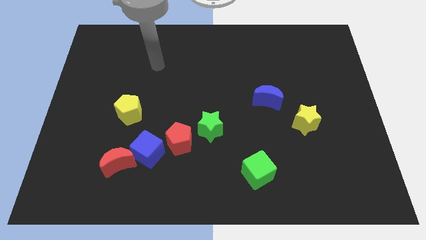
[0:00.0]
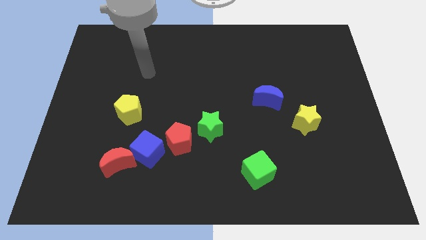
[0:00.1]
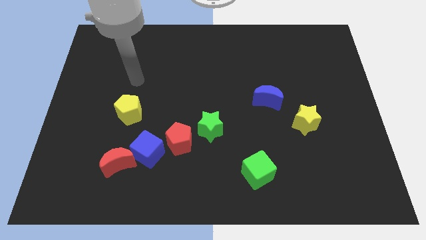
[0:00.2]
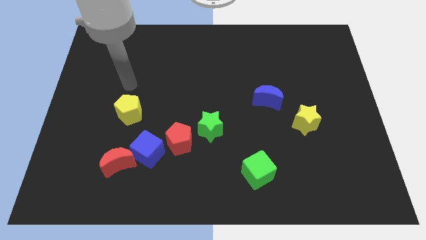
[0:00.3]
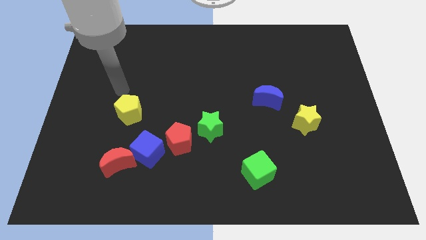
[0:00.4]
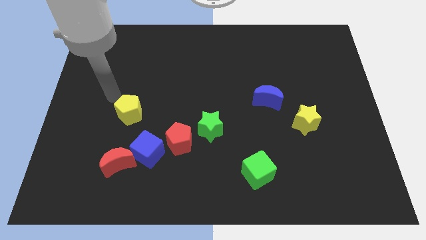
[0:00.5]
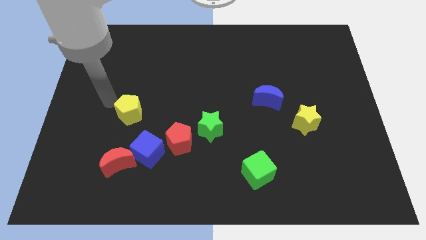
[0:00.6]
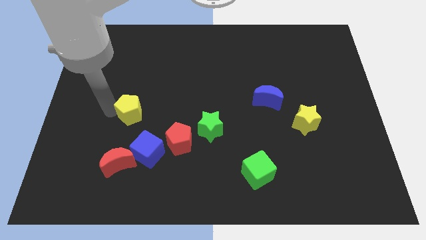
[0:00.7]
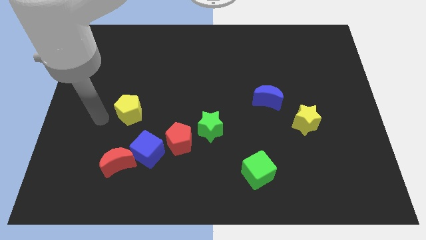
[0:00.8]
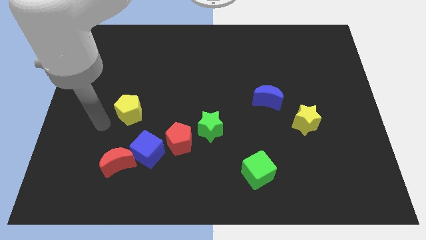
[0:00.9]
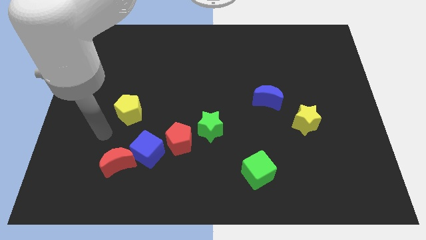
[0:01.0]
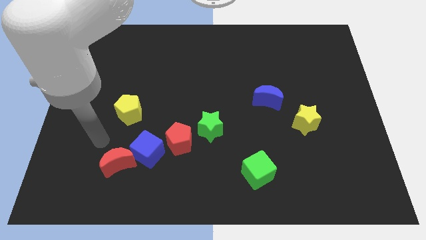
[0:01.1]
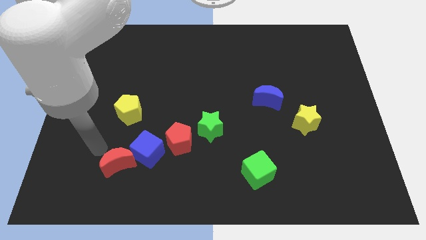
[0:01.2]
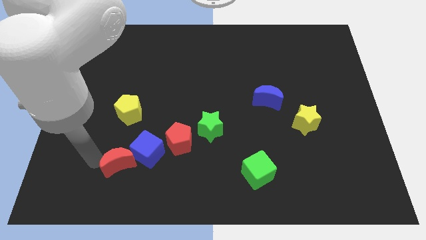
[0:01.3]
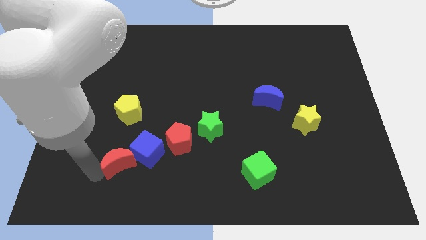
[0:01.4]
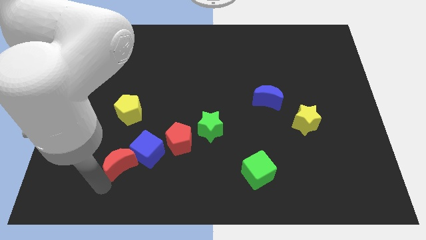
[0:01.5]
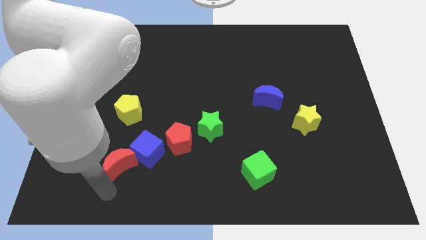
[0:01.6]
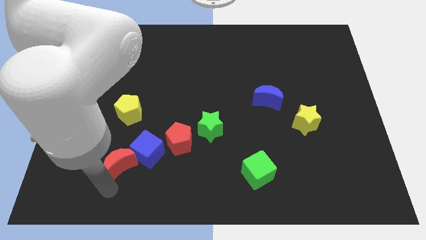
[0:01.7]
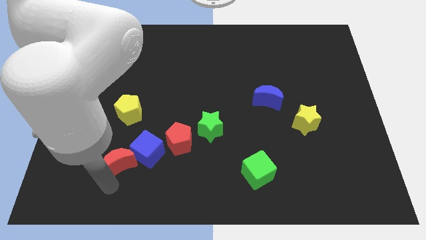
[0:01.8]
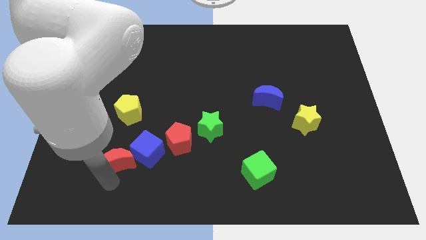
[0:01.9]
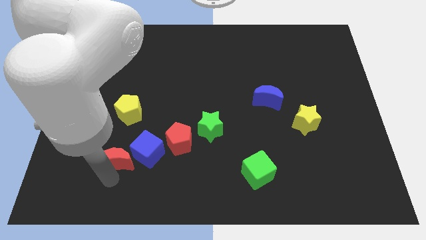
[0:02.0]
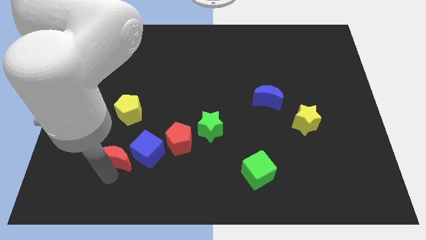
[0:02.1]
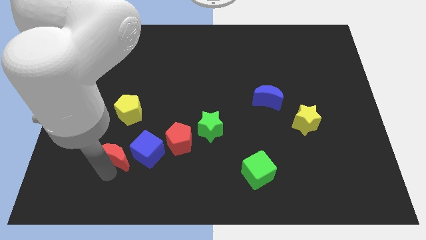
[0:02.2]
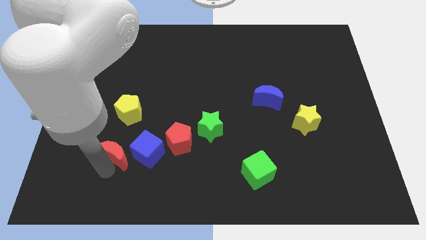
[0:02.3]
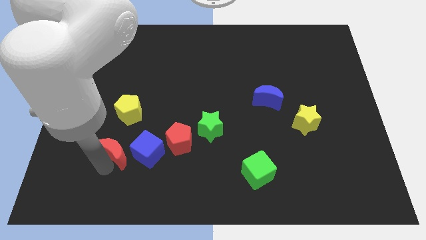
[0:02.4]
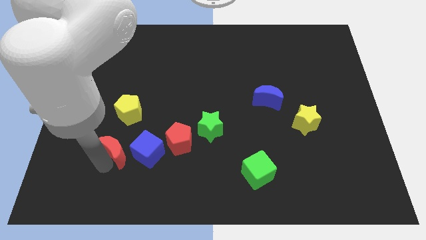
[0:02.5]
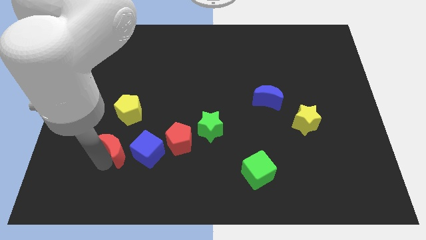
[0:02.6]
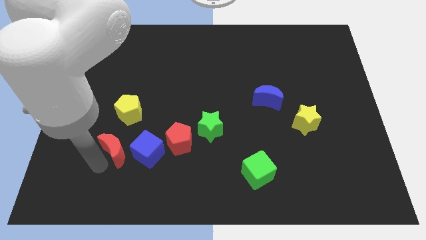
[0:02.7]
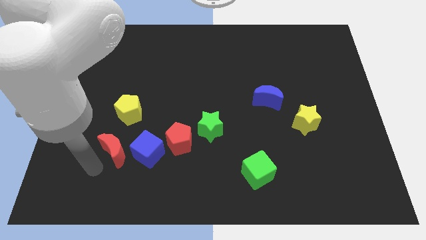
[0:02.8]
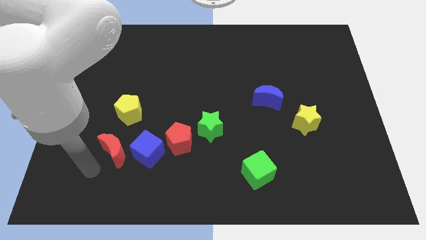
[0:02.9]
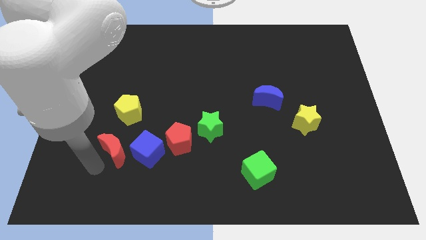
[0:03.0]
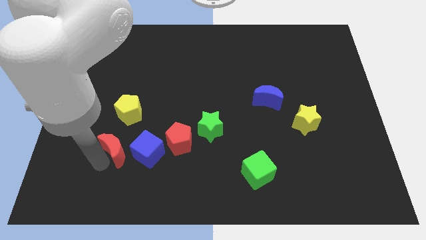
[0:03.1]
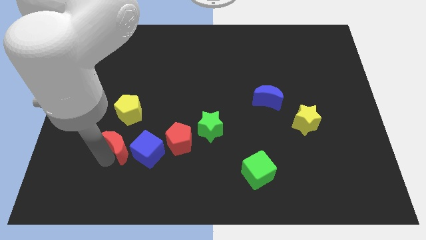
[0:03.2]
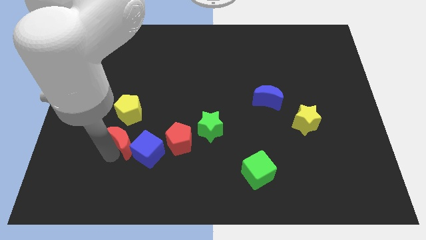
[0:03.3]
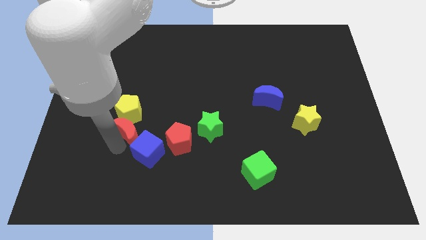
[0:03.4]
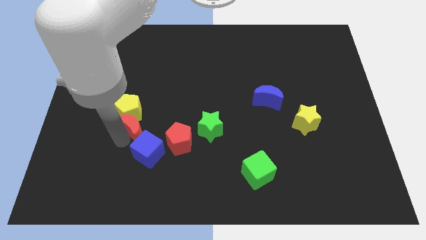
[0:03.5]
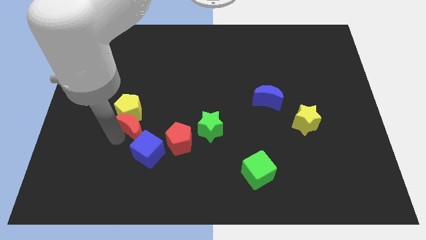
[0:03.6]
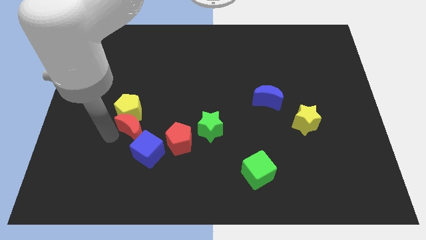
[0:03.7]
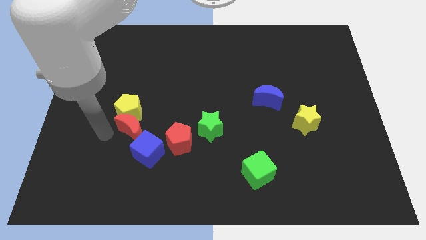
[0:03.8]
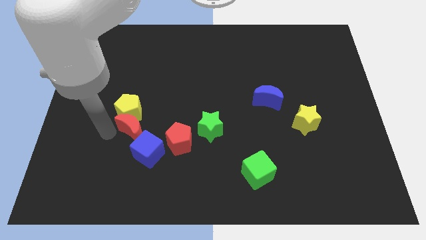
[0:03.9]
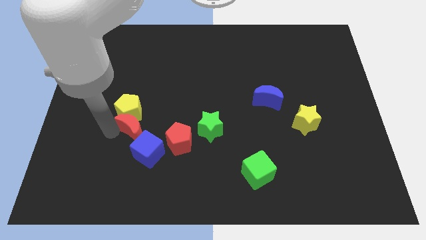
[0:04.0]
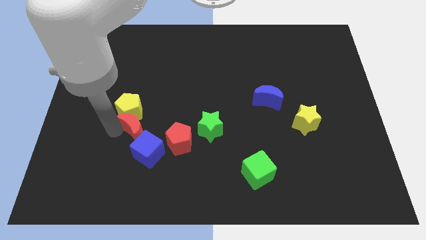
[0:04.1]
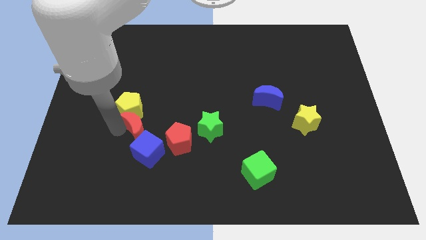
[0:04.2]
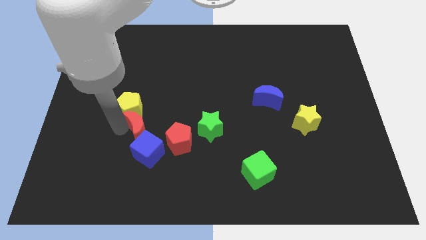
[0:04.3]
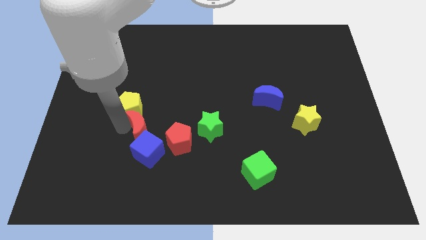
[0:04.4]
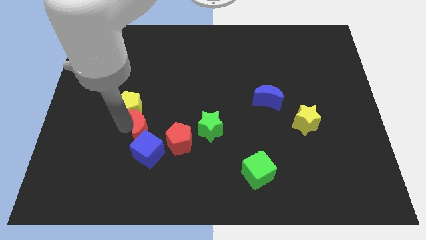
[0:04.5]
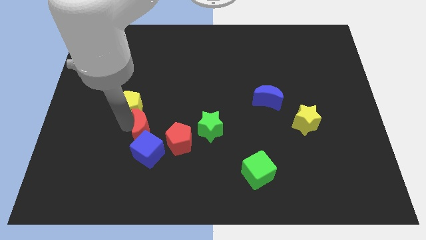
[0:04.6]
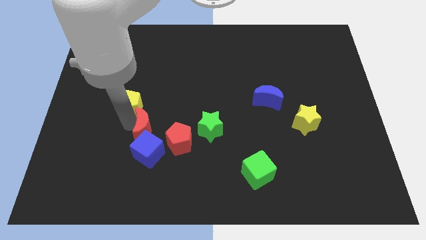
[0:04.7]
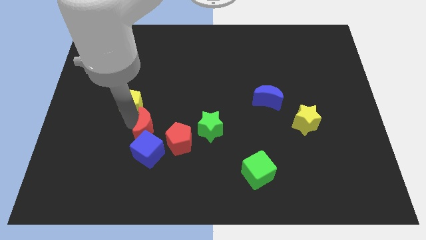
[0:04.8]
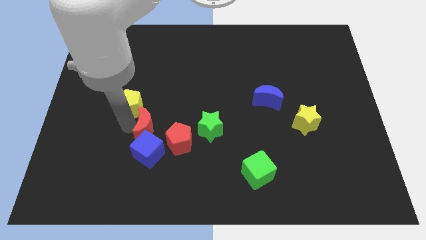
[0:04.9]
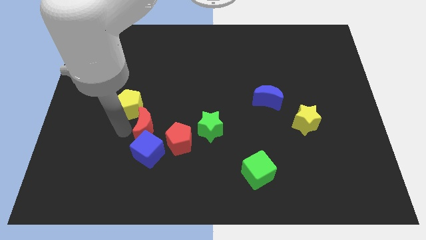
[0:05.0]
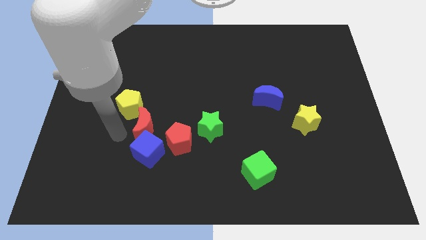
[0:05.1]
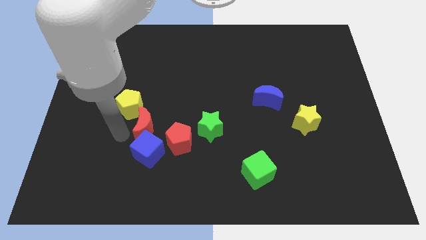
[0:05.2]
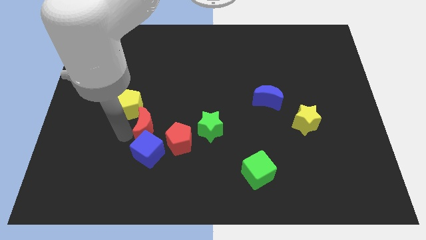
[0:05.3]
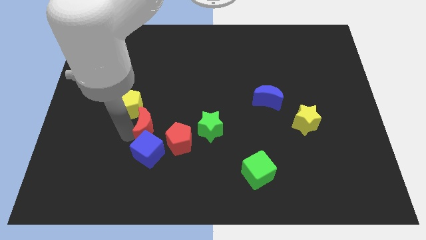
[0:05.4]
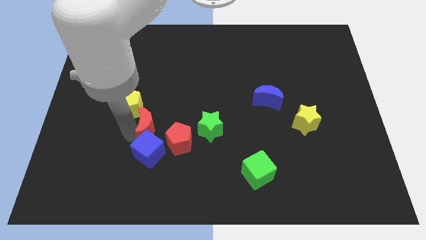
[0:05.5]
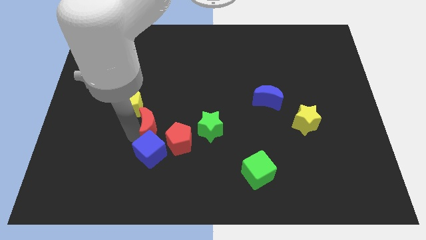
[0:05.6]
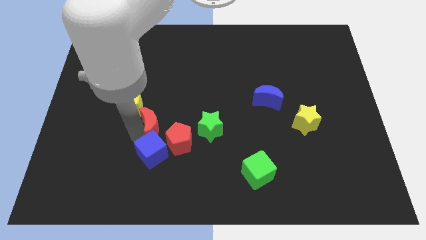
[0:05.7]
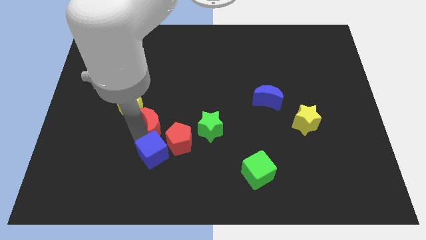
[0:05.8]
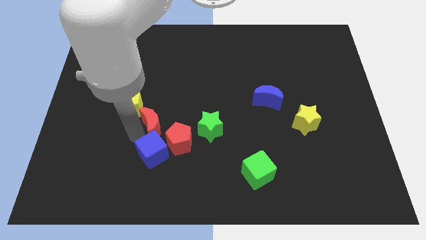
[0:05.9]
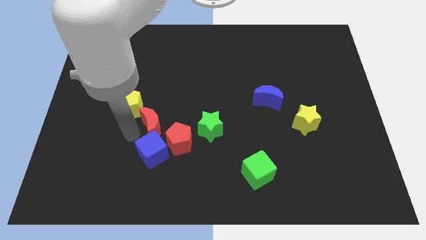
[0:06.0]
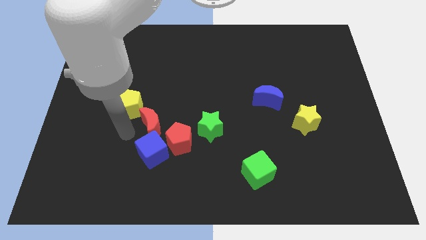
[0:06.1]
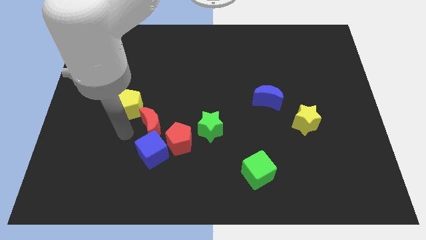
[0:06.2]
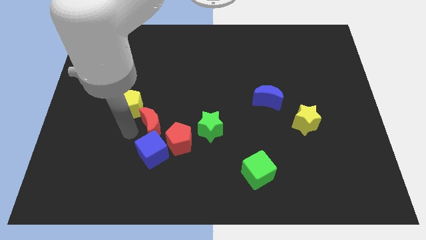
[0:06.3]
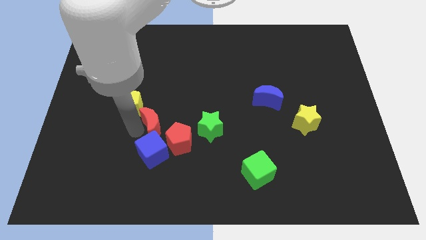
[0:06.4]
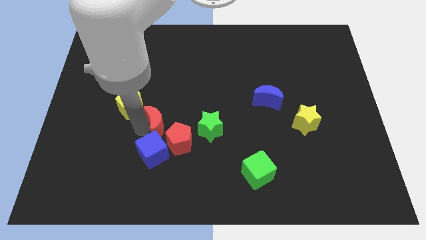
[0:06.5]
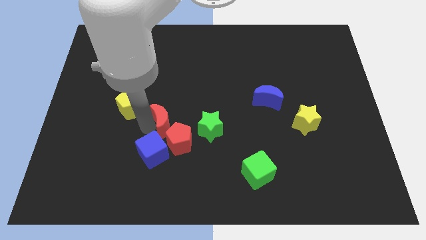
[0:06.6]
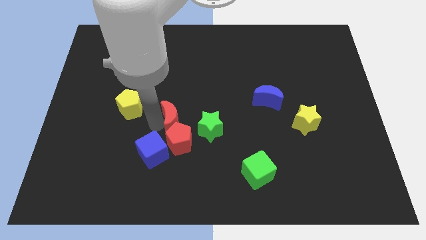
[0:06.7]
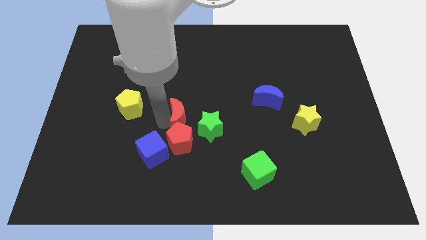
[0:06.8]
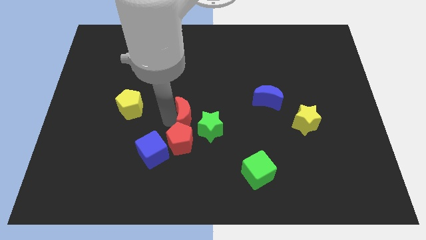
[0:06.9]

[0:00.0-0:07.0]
move the red moon to the top right side of the red pentagon

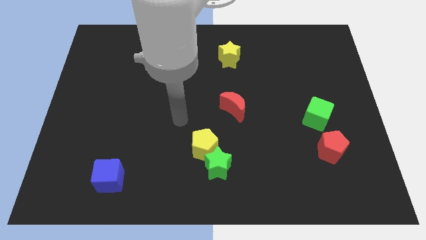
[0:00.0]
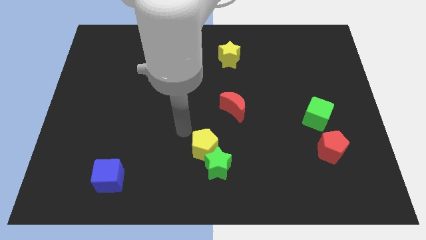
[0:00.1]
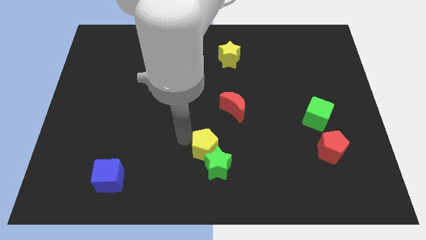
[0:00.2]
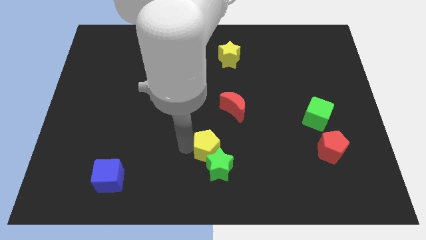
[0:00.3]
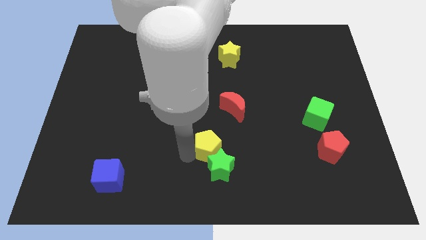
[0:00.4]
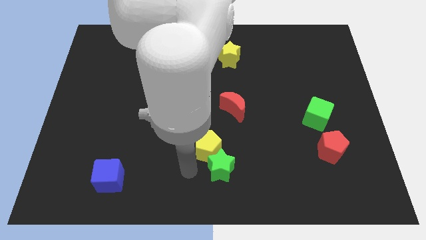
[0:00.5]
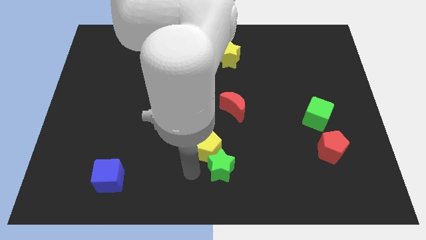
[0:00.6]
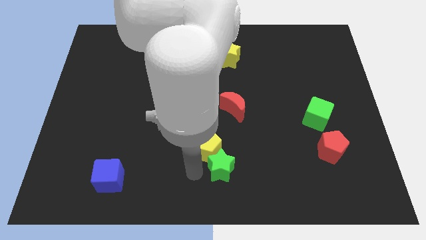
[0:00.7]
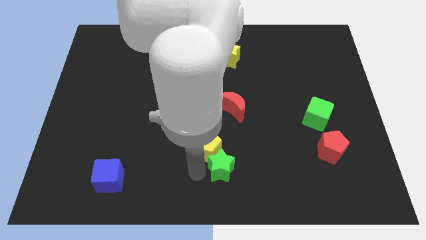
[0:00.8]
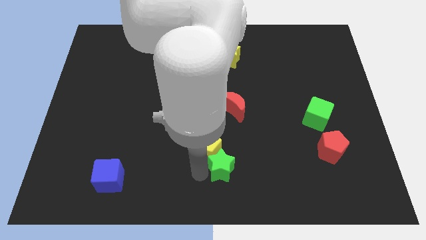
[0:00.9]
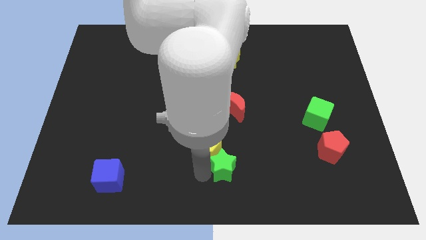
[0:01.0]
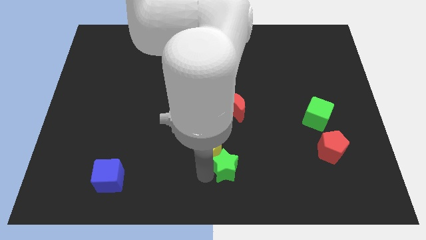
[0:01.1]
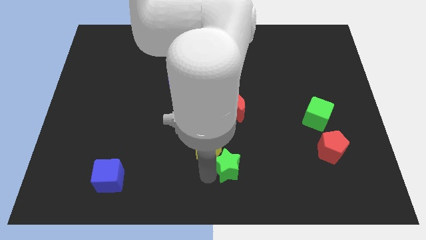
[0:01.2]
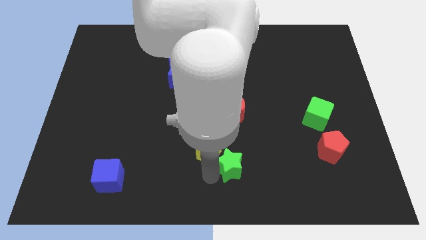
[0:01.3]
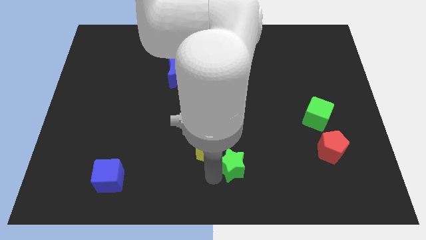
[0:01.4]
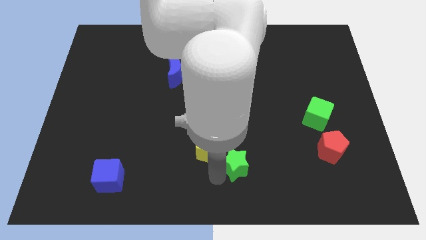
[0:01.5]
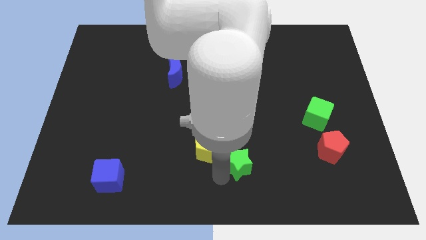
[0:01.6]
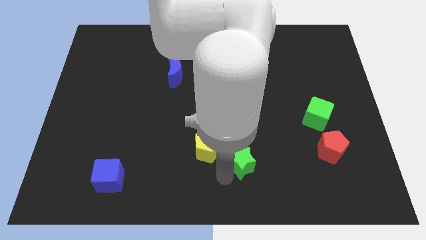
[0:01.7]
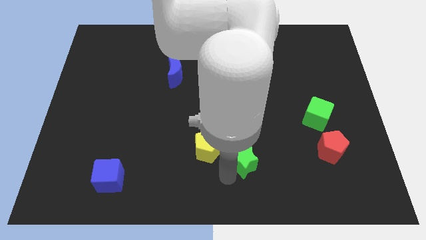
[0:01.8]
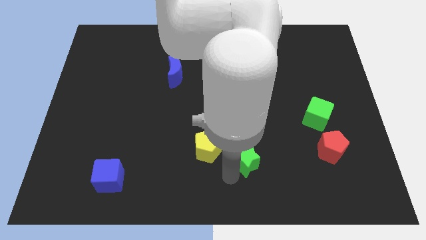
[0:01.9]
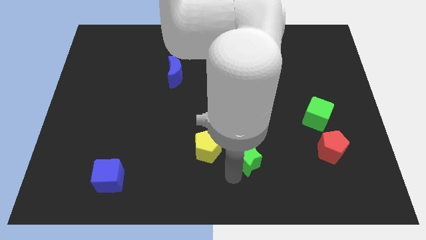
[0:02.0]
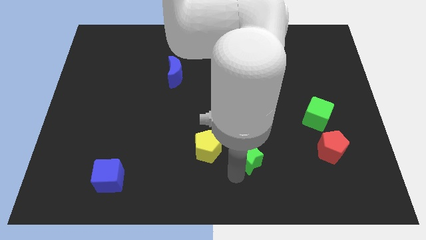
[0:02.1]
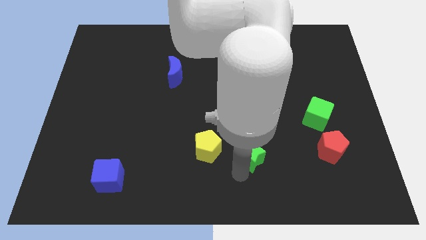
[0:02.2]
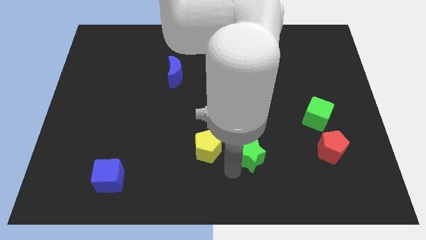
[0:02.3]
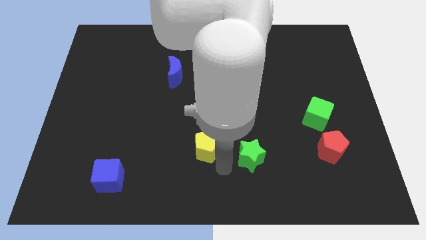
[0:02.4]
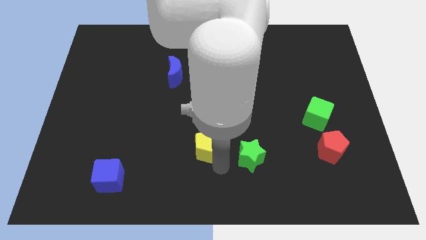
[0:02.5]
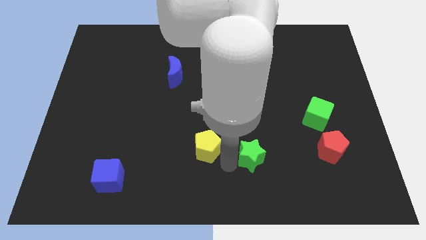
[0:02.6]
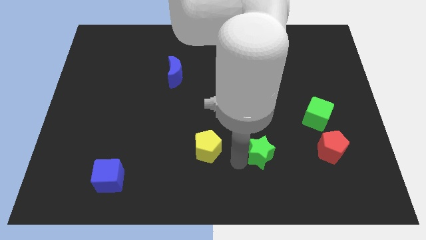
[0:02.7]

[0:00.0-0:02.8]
move the green star left of the red pentagon
